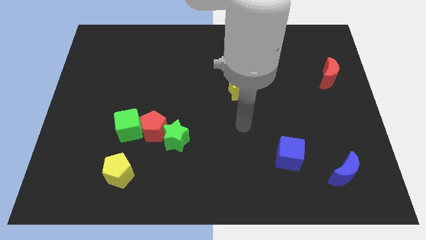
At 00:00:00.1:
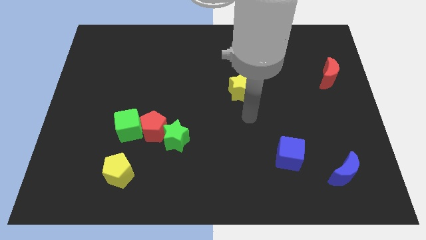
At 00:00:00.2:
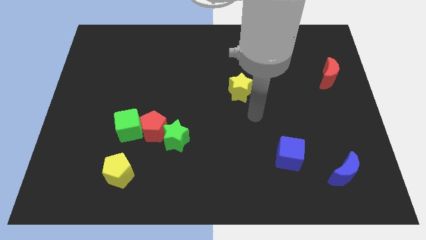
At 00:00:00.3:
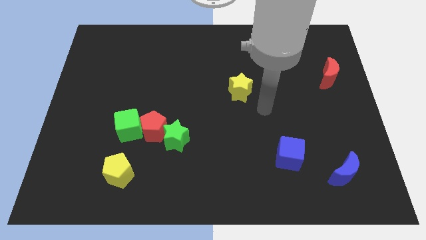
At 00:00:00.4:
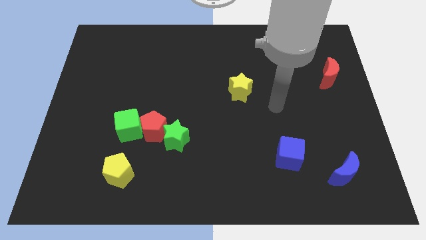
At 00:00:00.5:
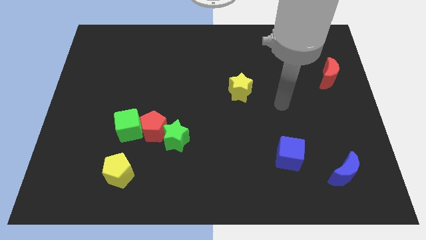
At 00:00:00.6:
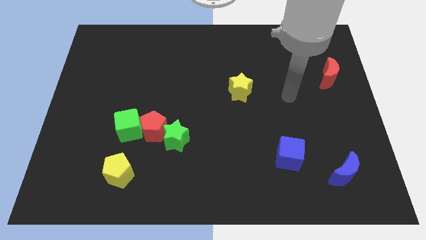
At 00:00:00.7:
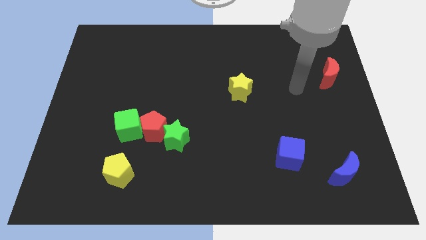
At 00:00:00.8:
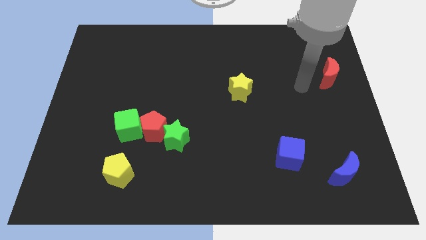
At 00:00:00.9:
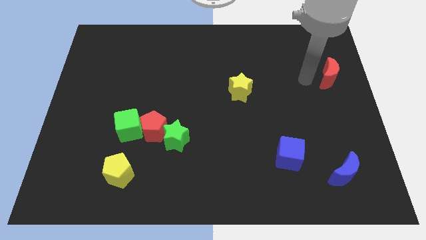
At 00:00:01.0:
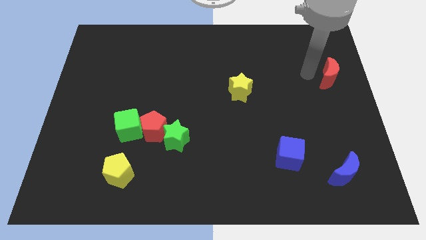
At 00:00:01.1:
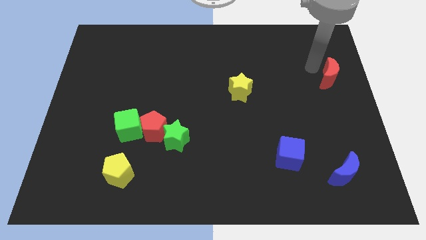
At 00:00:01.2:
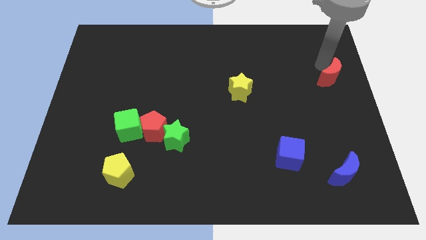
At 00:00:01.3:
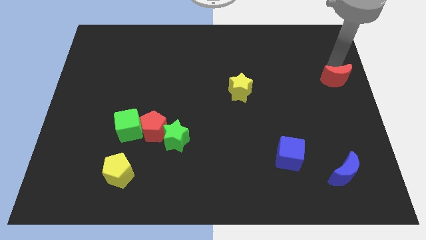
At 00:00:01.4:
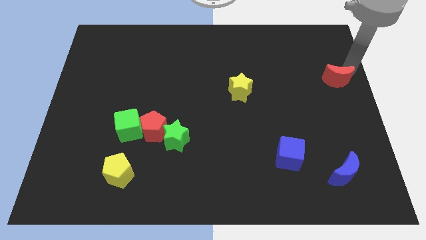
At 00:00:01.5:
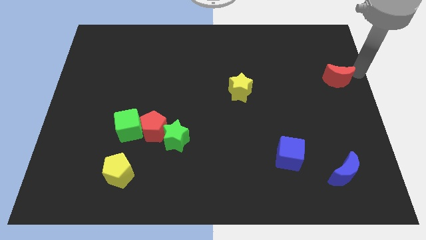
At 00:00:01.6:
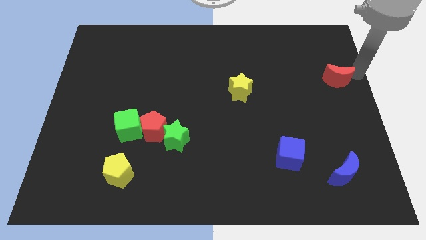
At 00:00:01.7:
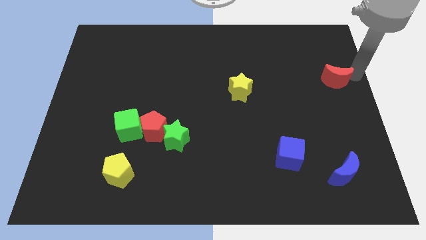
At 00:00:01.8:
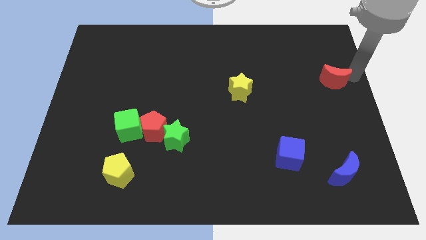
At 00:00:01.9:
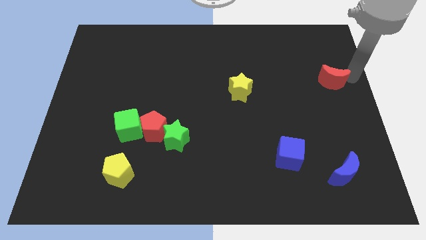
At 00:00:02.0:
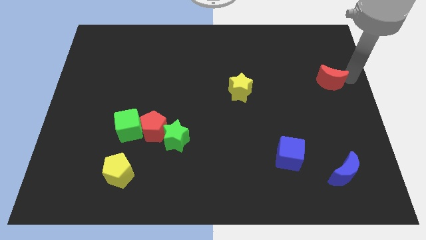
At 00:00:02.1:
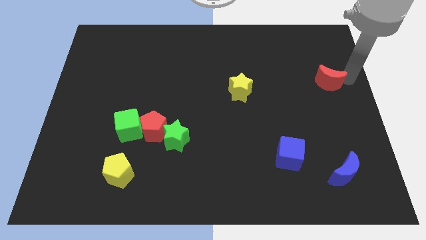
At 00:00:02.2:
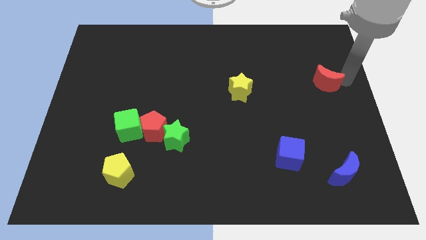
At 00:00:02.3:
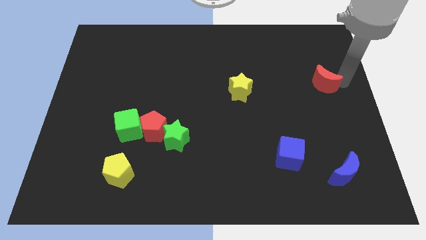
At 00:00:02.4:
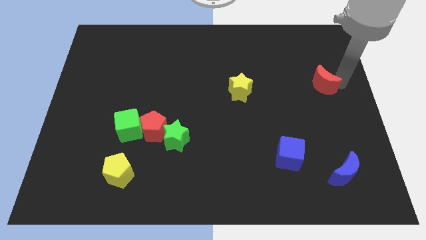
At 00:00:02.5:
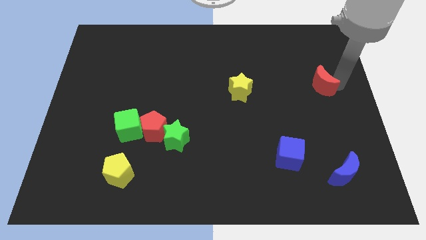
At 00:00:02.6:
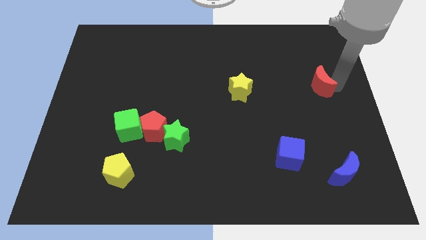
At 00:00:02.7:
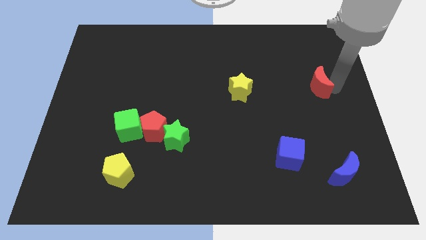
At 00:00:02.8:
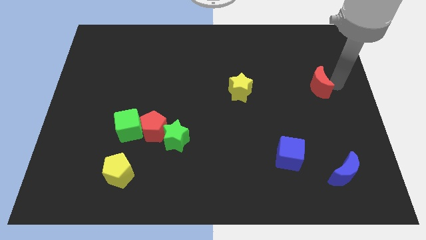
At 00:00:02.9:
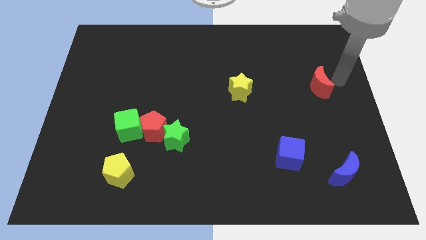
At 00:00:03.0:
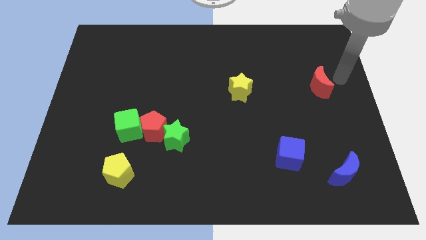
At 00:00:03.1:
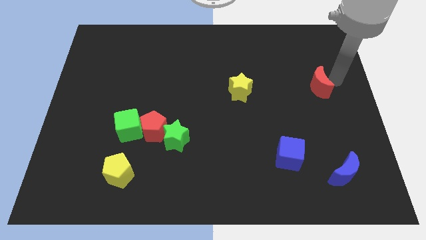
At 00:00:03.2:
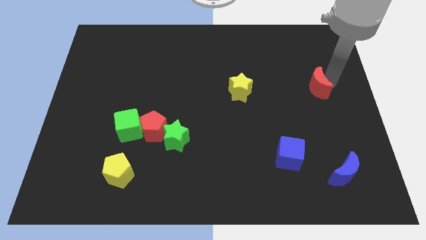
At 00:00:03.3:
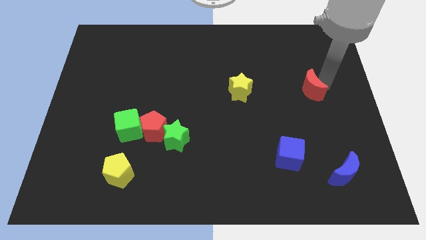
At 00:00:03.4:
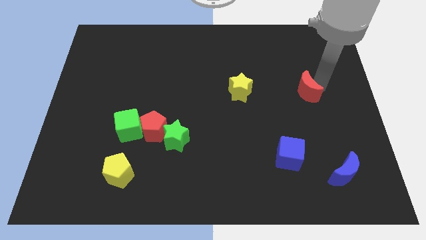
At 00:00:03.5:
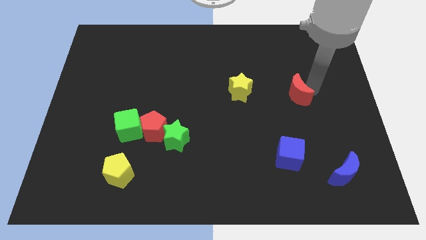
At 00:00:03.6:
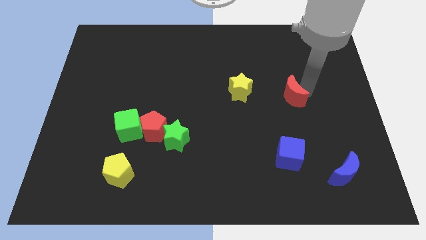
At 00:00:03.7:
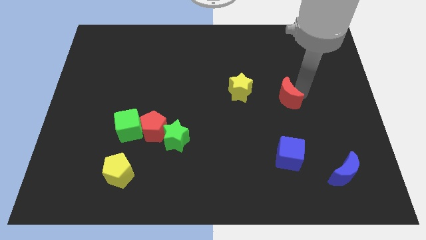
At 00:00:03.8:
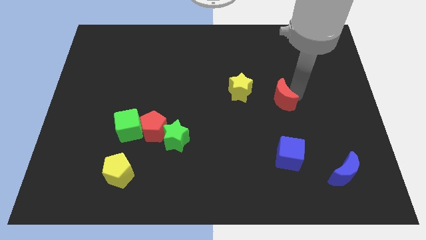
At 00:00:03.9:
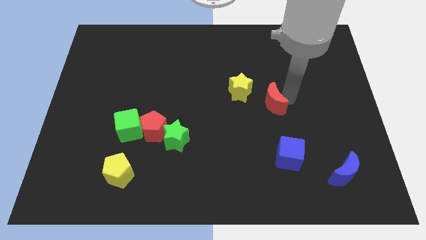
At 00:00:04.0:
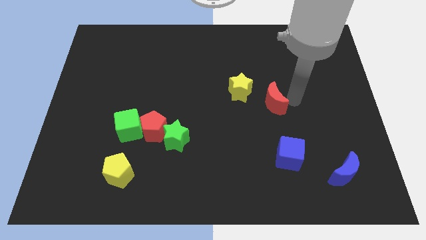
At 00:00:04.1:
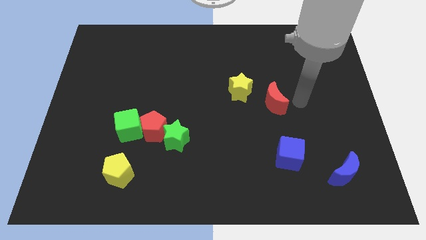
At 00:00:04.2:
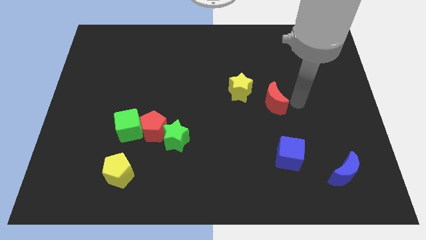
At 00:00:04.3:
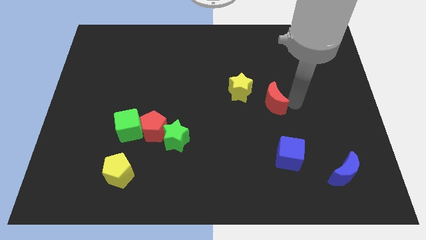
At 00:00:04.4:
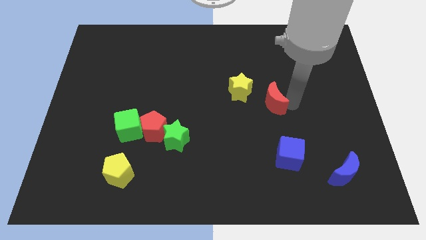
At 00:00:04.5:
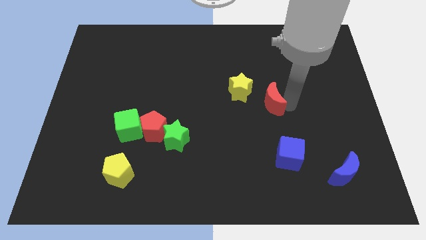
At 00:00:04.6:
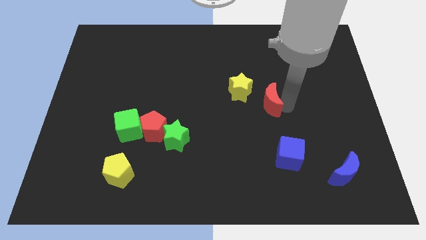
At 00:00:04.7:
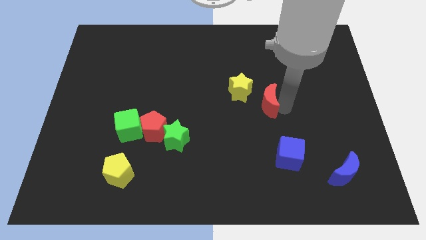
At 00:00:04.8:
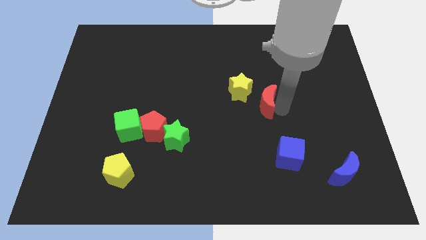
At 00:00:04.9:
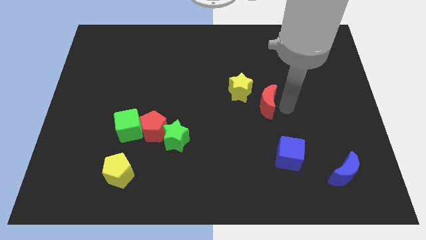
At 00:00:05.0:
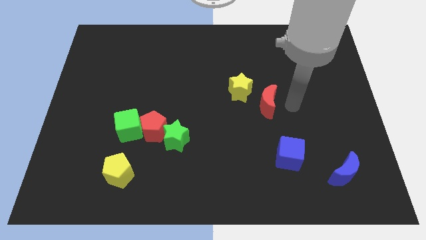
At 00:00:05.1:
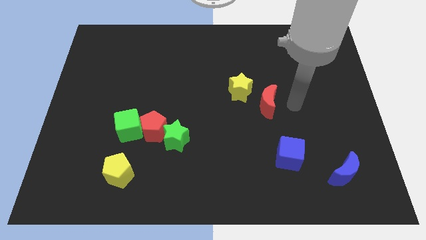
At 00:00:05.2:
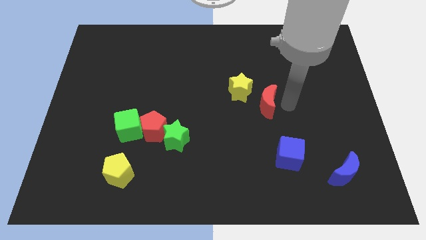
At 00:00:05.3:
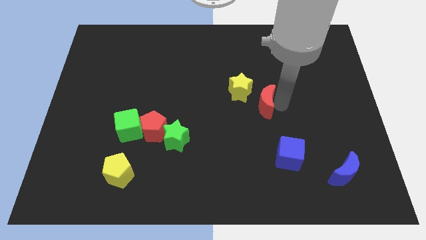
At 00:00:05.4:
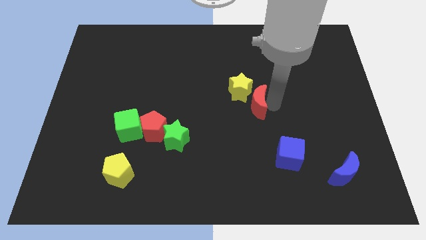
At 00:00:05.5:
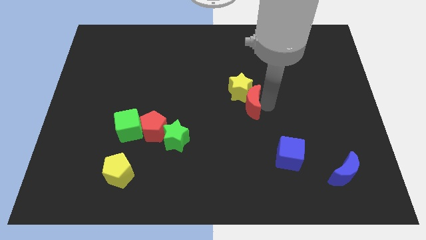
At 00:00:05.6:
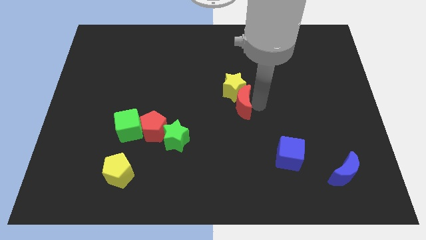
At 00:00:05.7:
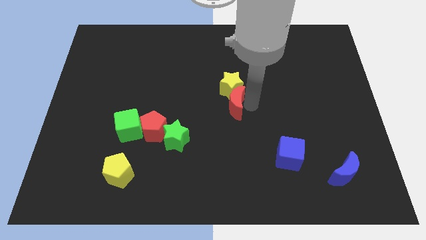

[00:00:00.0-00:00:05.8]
push the red moon to the bottom left of the yellow star

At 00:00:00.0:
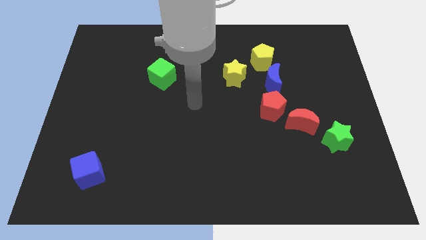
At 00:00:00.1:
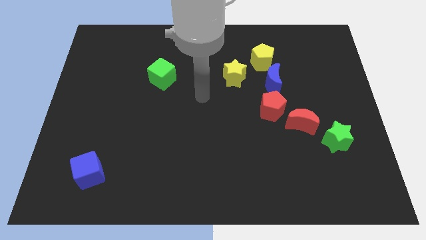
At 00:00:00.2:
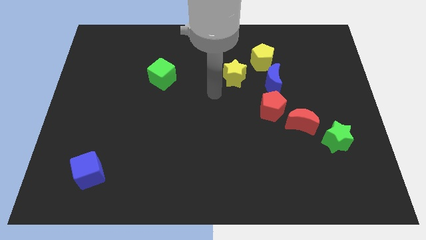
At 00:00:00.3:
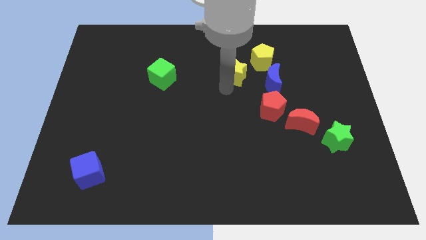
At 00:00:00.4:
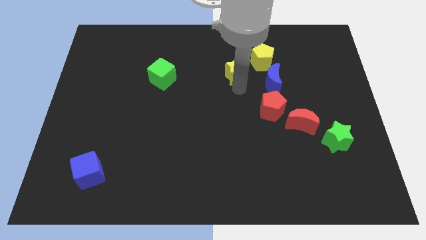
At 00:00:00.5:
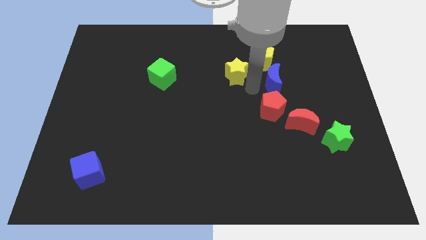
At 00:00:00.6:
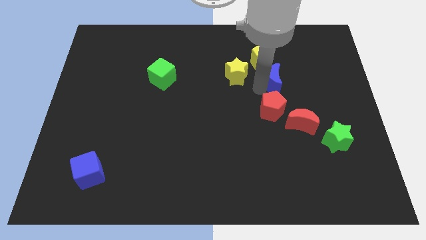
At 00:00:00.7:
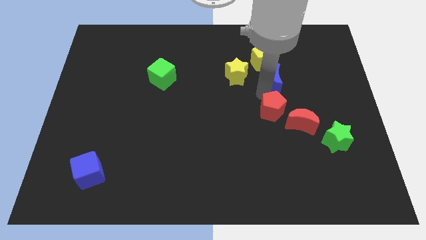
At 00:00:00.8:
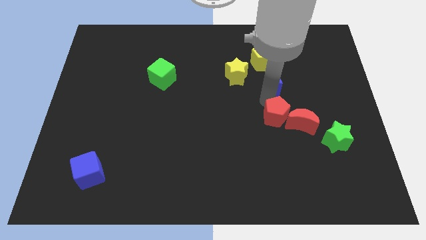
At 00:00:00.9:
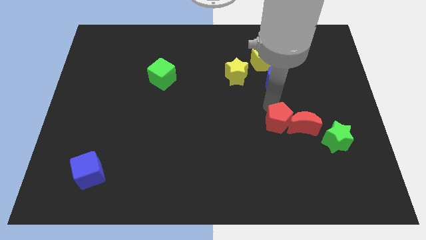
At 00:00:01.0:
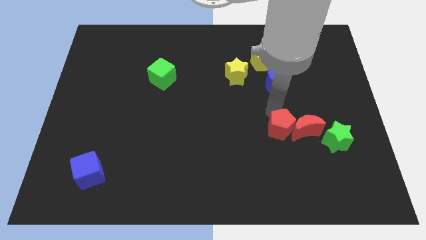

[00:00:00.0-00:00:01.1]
push the red pentagon left of the green star
